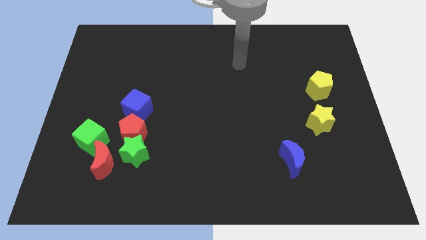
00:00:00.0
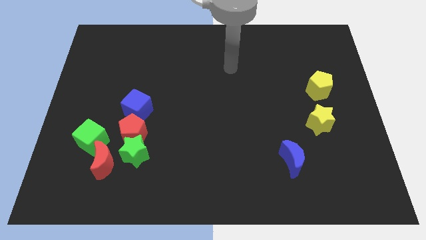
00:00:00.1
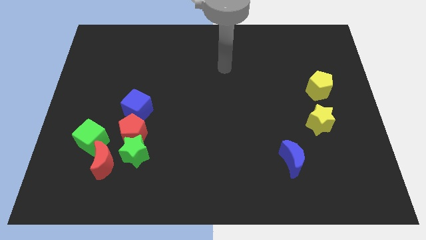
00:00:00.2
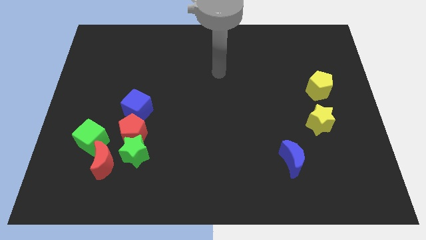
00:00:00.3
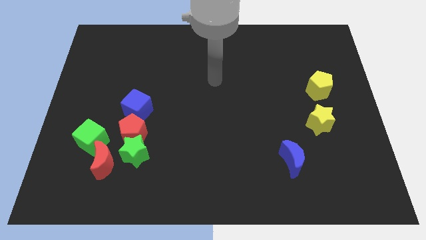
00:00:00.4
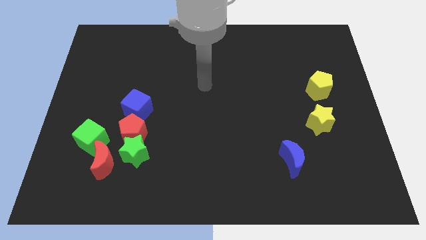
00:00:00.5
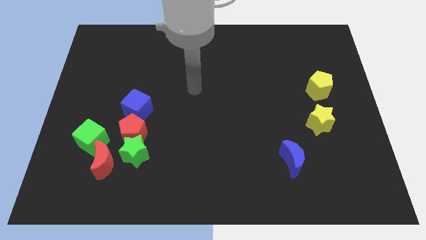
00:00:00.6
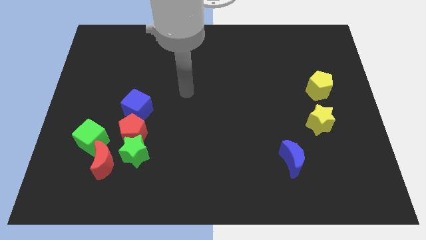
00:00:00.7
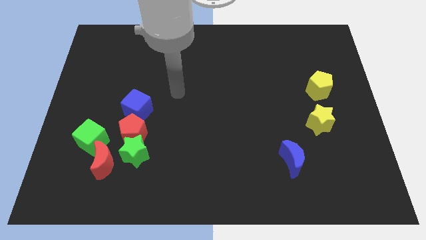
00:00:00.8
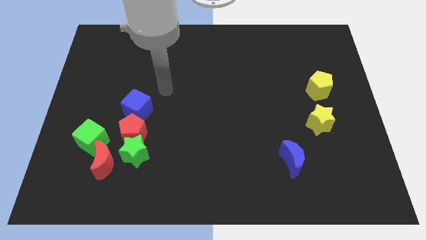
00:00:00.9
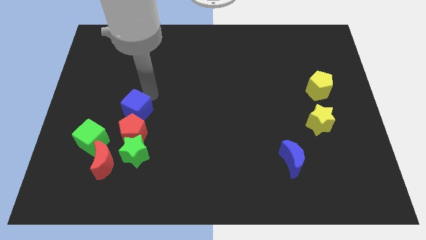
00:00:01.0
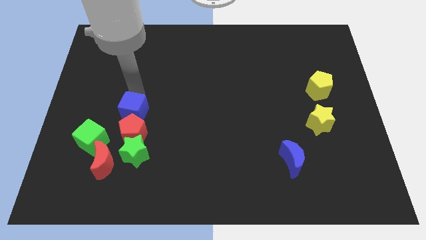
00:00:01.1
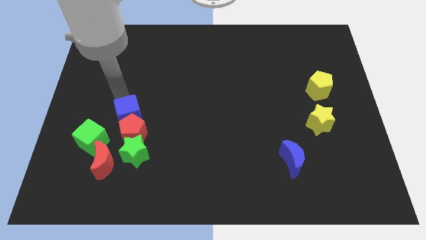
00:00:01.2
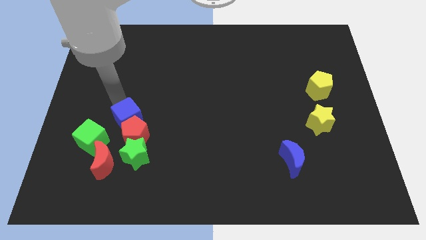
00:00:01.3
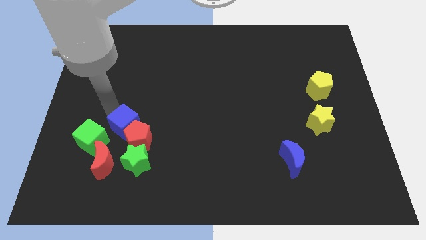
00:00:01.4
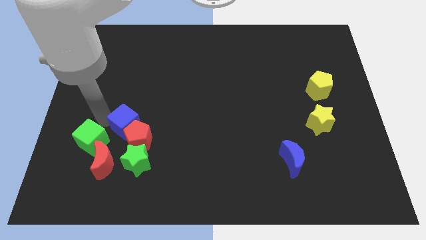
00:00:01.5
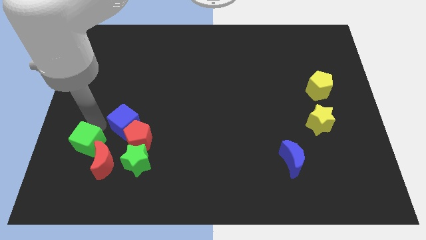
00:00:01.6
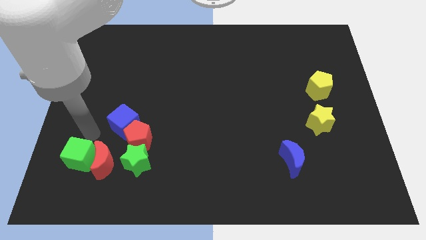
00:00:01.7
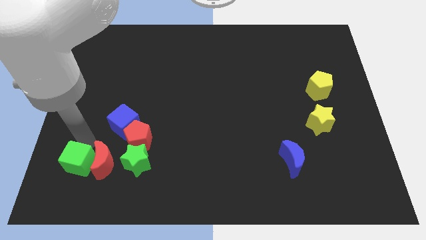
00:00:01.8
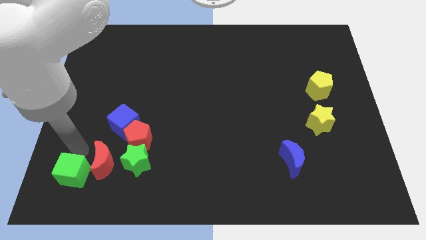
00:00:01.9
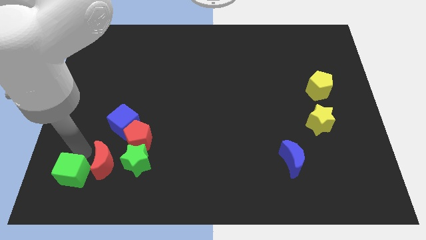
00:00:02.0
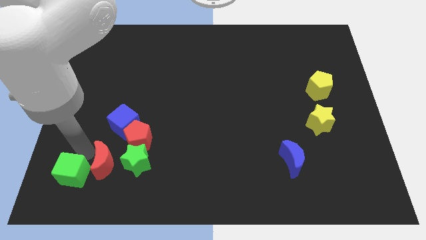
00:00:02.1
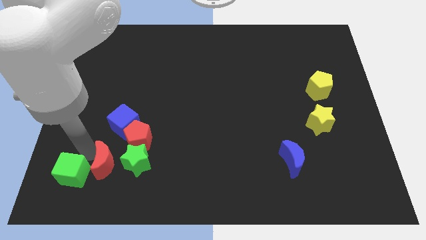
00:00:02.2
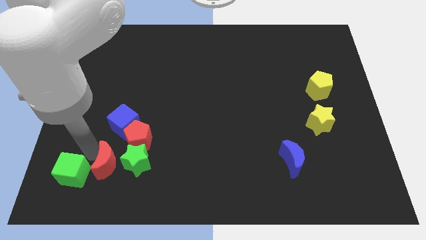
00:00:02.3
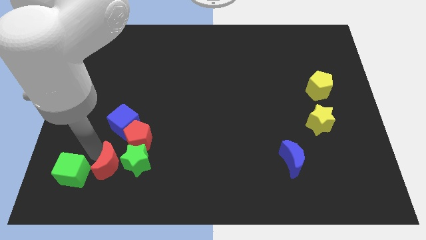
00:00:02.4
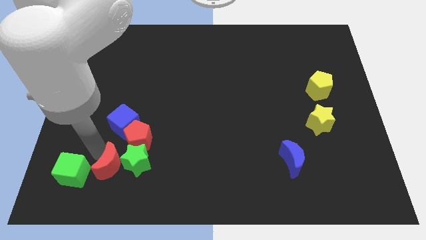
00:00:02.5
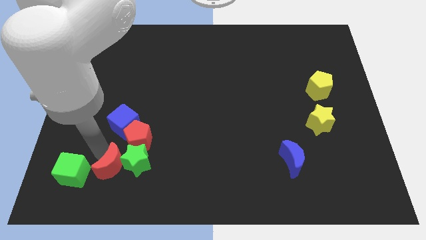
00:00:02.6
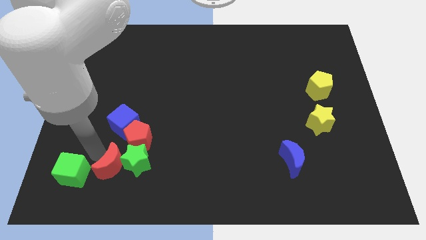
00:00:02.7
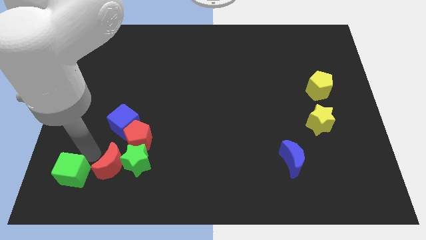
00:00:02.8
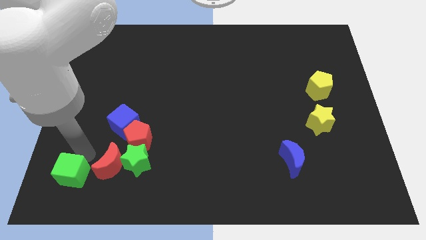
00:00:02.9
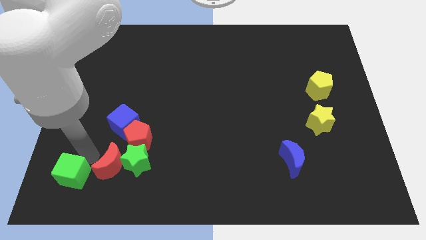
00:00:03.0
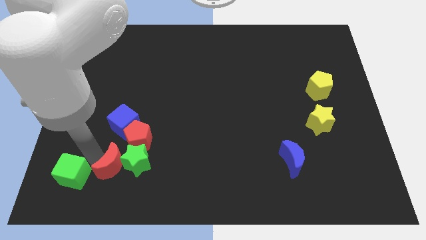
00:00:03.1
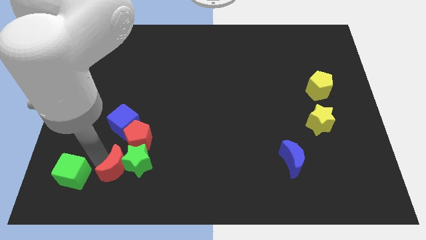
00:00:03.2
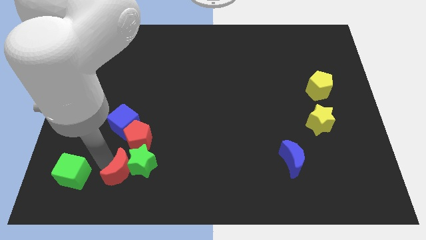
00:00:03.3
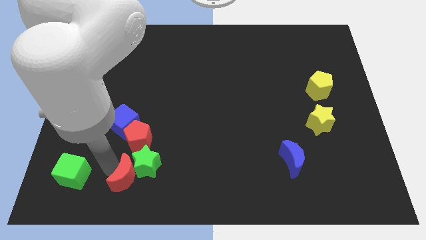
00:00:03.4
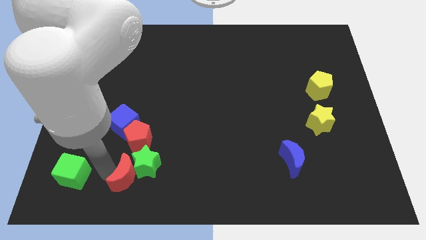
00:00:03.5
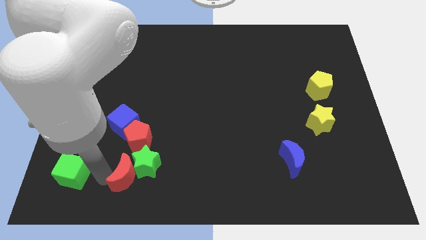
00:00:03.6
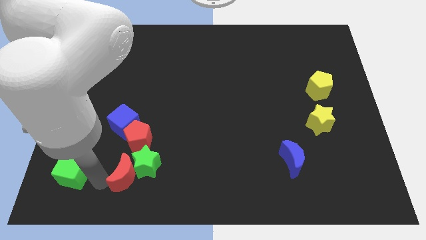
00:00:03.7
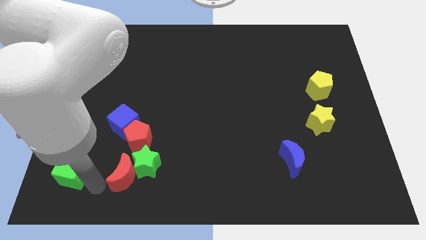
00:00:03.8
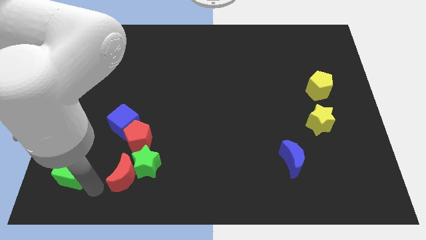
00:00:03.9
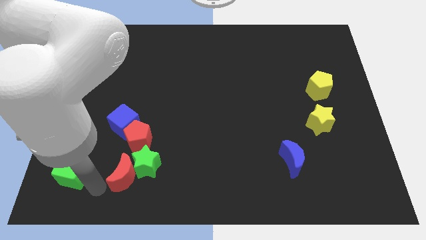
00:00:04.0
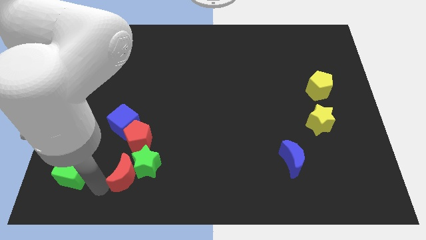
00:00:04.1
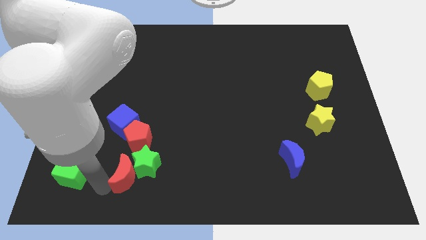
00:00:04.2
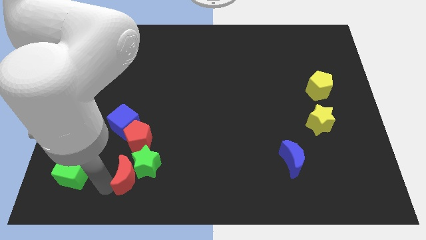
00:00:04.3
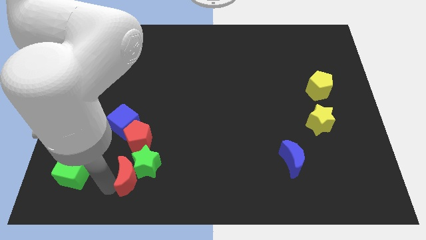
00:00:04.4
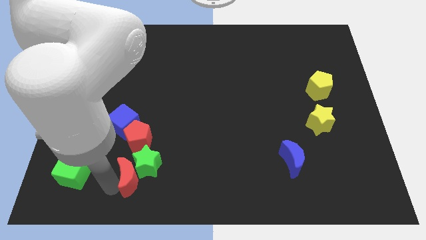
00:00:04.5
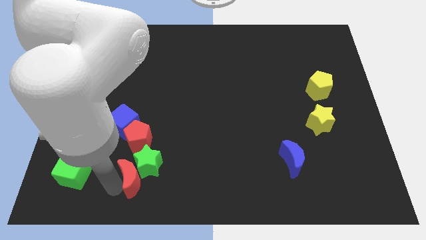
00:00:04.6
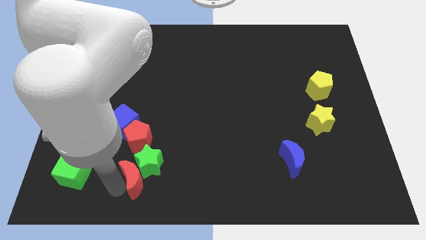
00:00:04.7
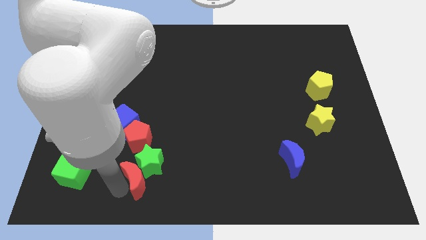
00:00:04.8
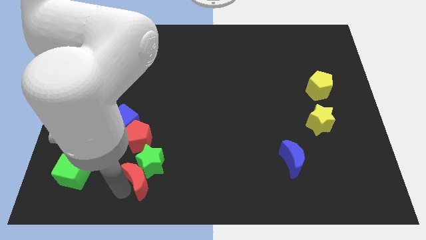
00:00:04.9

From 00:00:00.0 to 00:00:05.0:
push the red moon slightly right

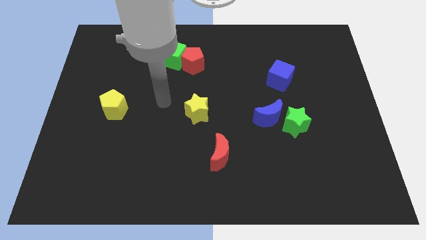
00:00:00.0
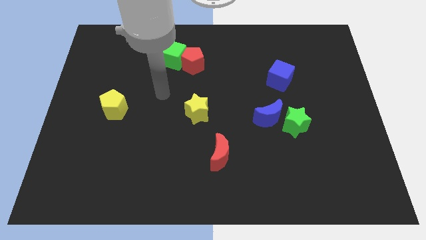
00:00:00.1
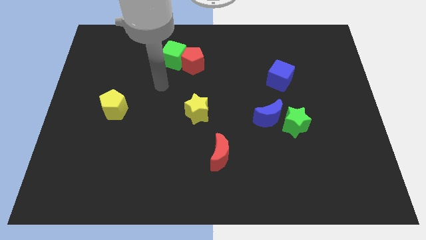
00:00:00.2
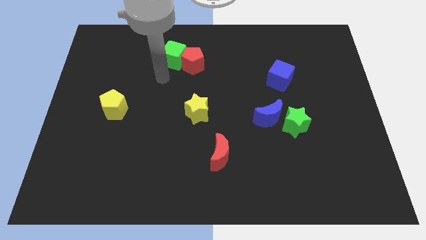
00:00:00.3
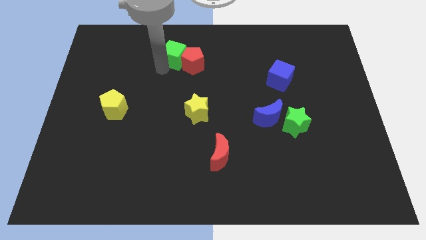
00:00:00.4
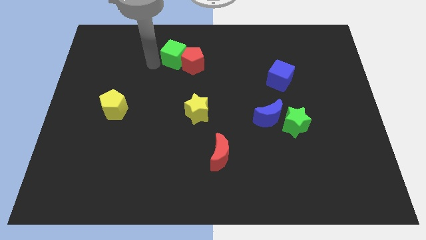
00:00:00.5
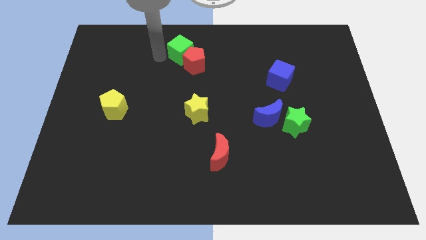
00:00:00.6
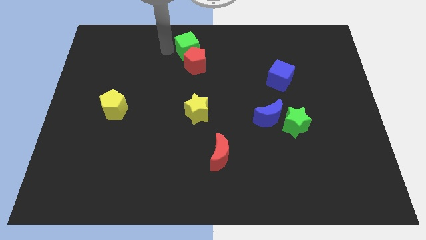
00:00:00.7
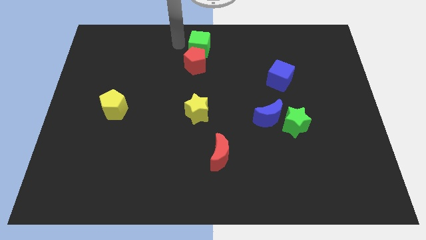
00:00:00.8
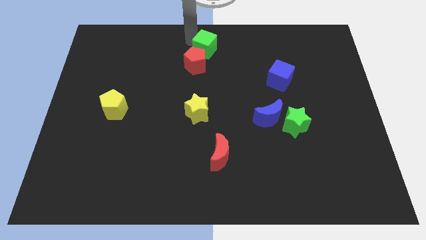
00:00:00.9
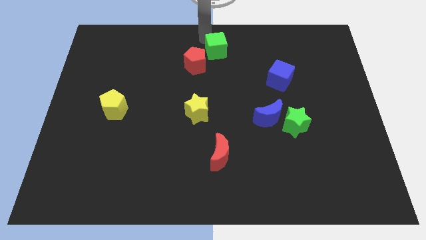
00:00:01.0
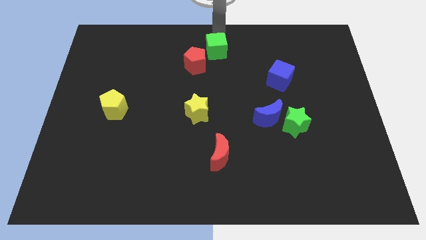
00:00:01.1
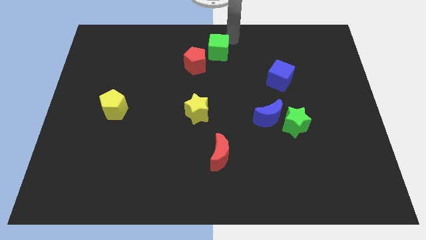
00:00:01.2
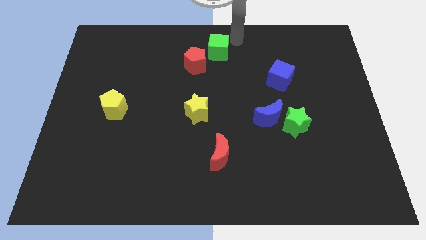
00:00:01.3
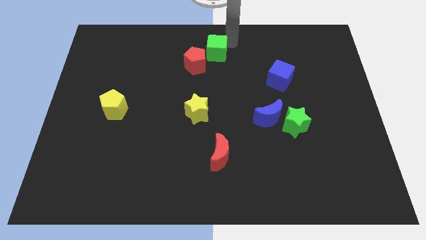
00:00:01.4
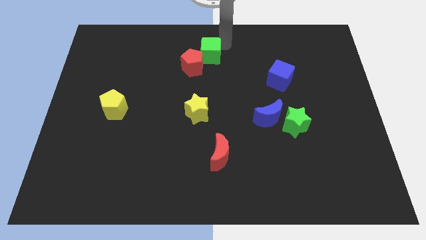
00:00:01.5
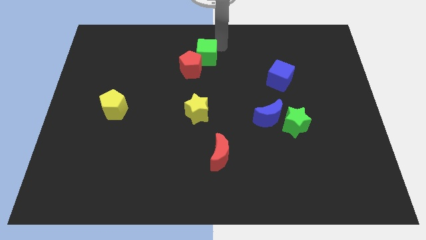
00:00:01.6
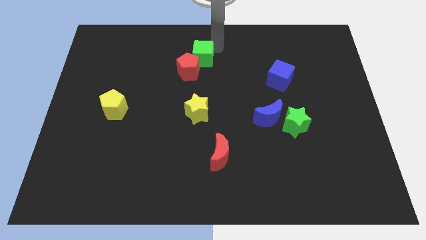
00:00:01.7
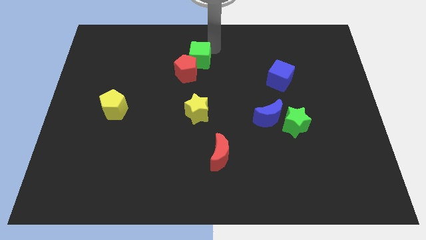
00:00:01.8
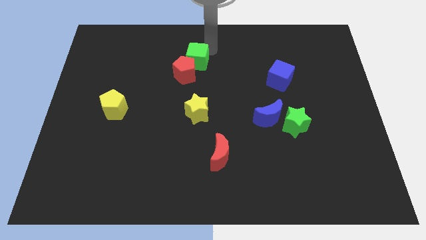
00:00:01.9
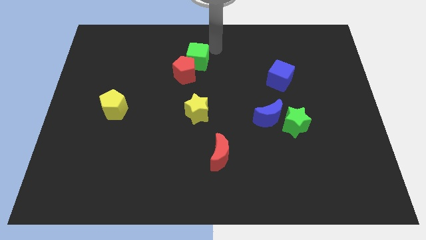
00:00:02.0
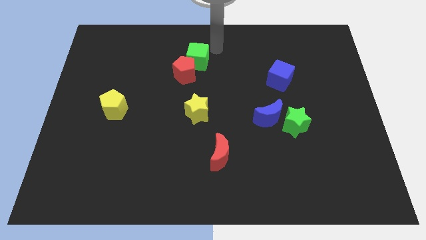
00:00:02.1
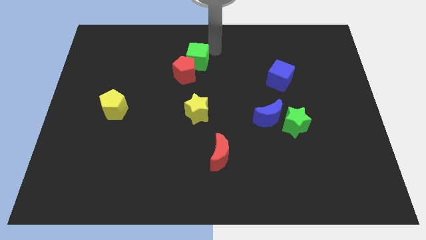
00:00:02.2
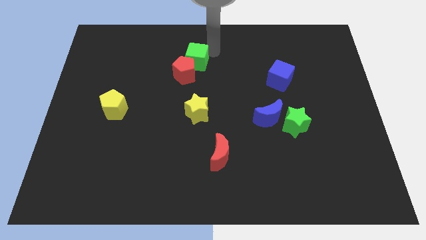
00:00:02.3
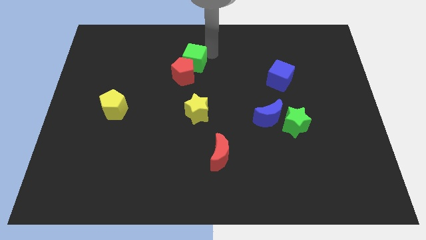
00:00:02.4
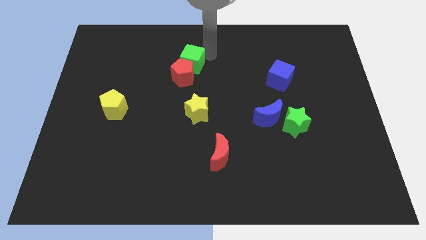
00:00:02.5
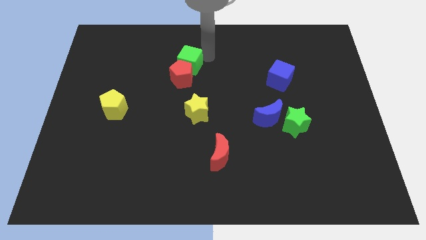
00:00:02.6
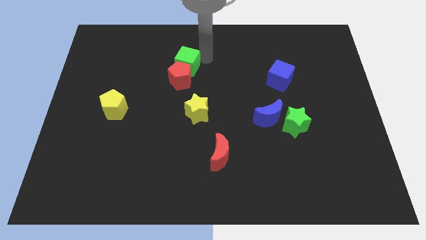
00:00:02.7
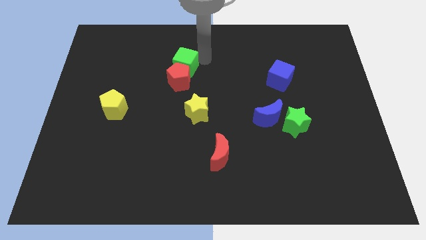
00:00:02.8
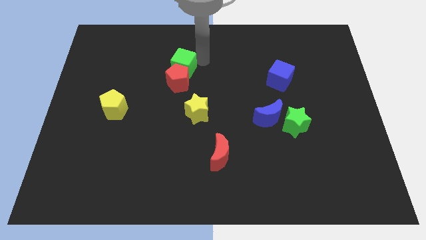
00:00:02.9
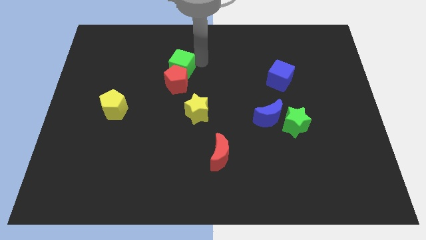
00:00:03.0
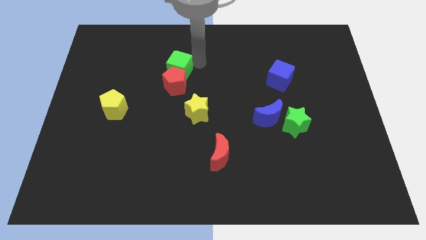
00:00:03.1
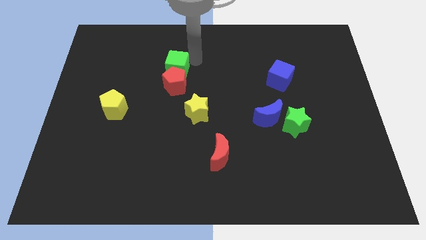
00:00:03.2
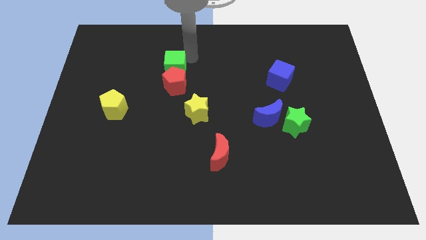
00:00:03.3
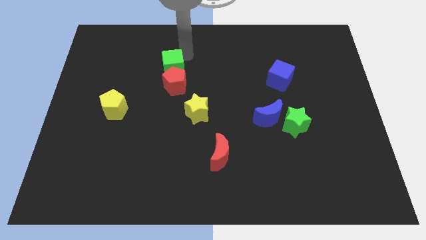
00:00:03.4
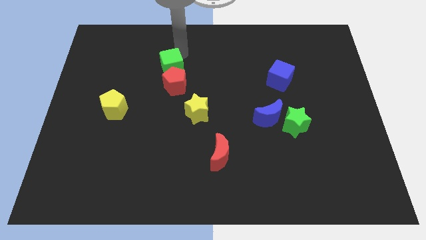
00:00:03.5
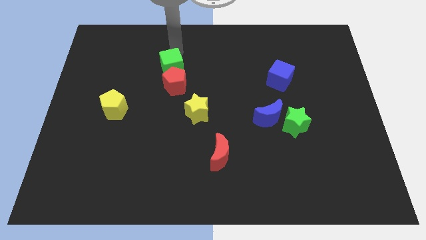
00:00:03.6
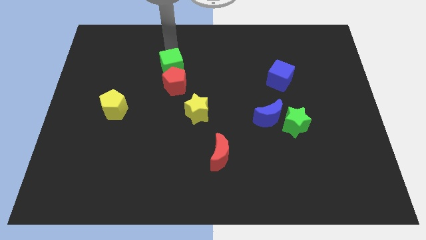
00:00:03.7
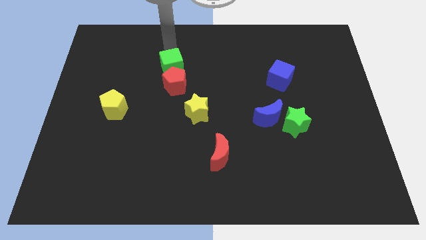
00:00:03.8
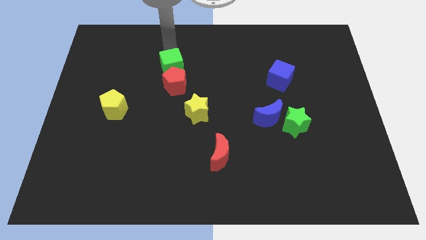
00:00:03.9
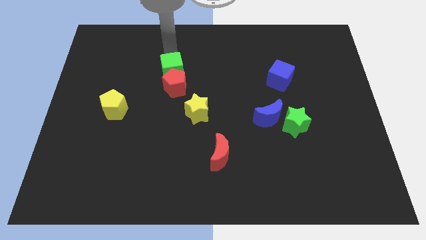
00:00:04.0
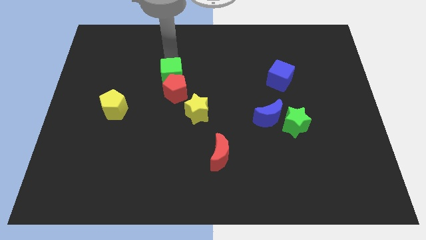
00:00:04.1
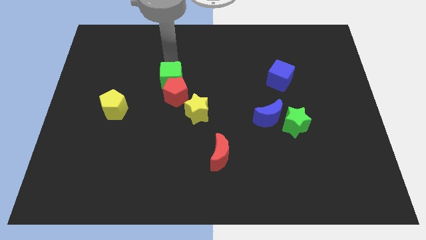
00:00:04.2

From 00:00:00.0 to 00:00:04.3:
slightly push the green cube down
